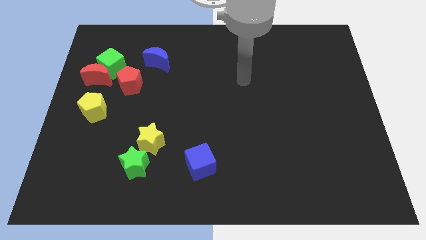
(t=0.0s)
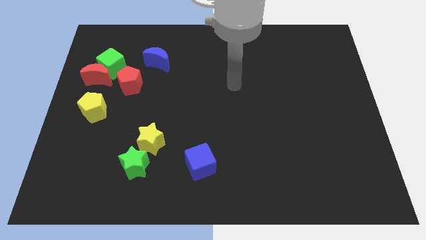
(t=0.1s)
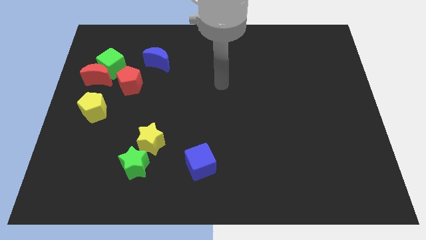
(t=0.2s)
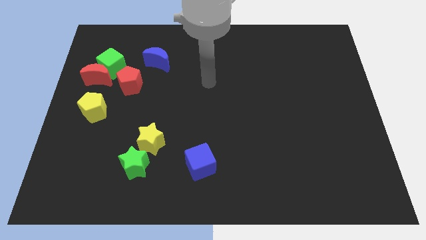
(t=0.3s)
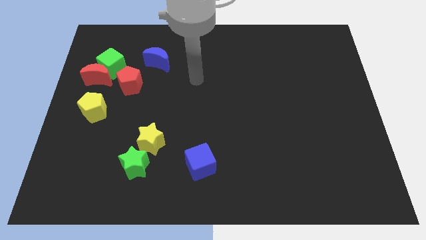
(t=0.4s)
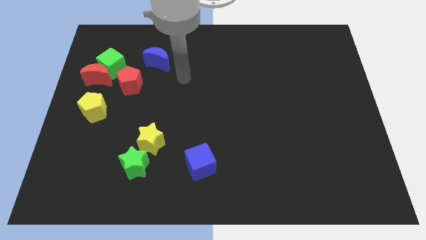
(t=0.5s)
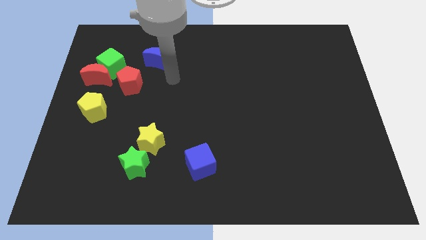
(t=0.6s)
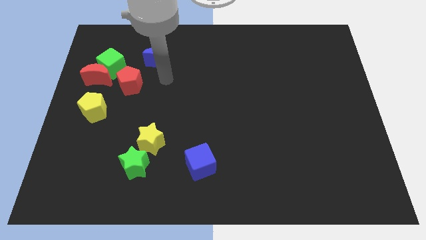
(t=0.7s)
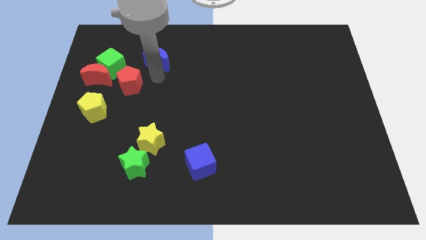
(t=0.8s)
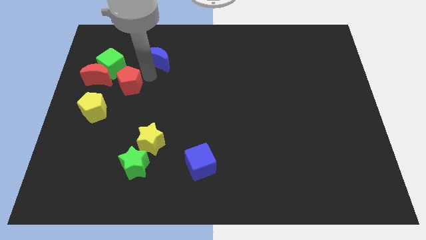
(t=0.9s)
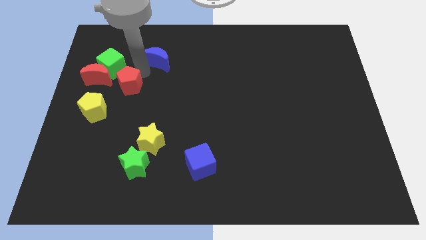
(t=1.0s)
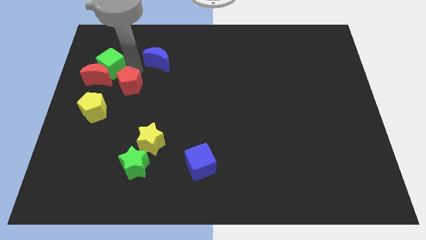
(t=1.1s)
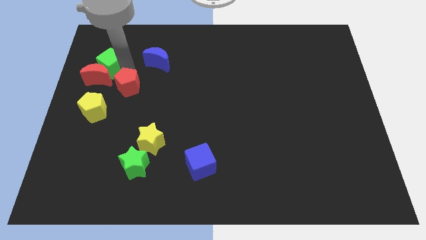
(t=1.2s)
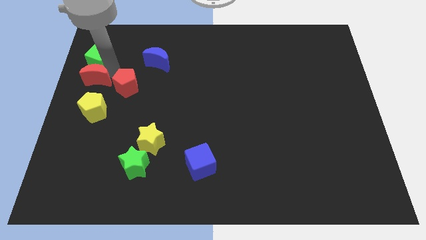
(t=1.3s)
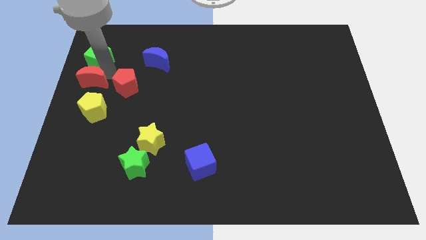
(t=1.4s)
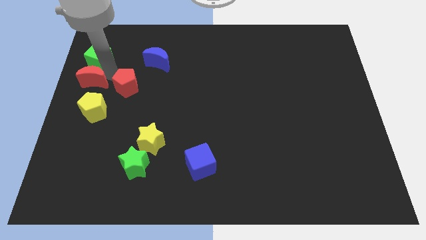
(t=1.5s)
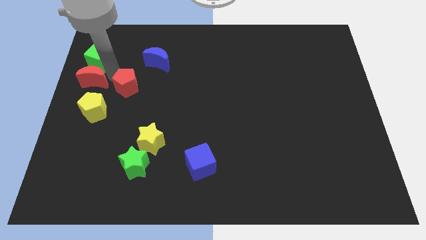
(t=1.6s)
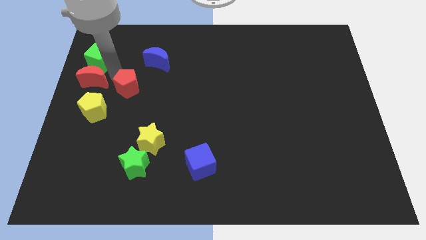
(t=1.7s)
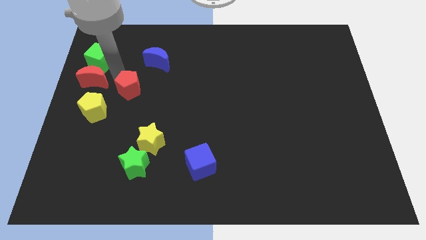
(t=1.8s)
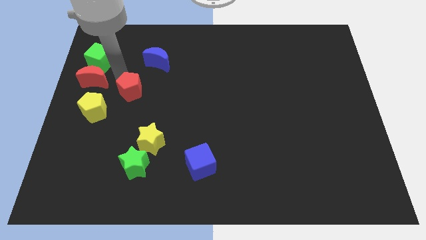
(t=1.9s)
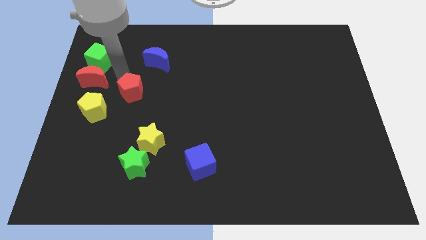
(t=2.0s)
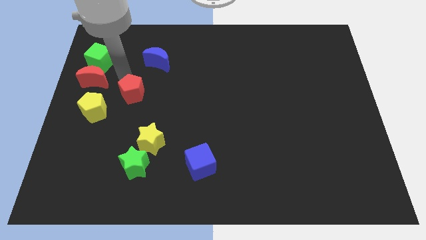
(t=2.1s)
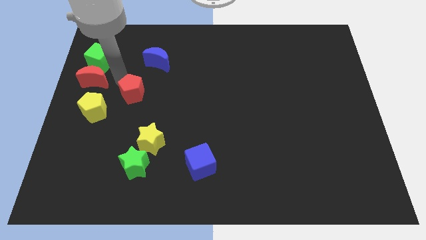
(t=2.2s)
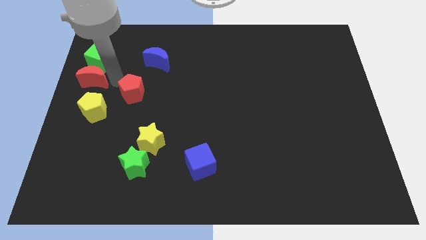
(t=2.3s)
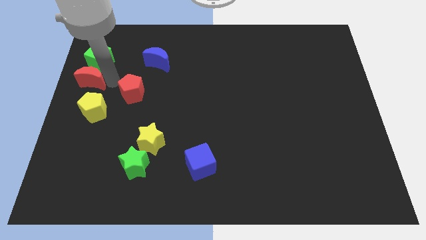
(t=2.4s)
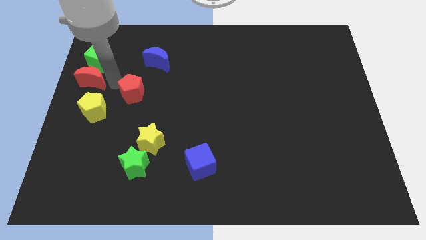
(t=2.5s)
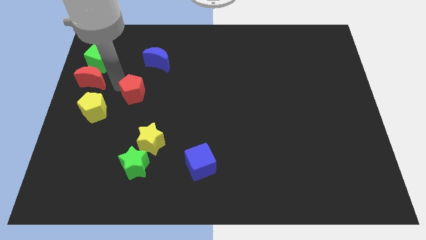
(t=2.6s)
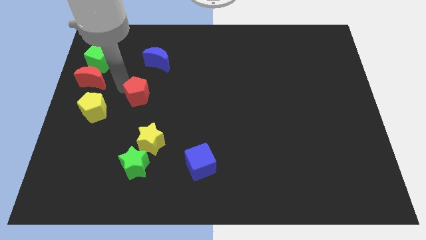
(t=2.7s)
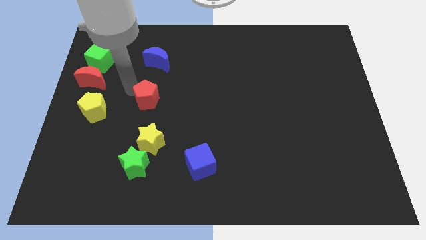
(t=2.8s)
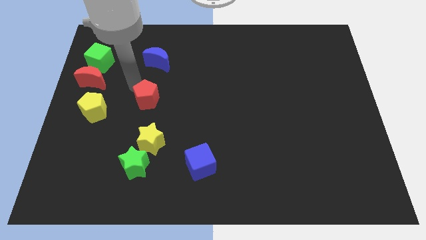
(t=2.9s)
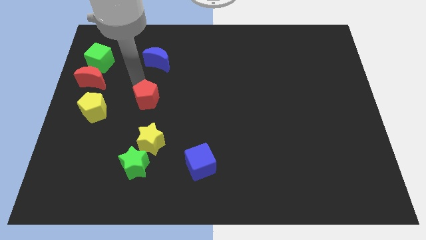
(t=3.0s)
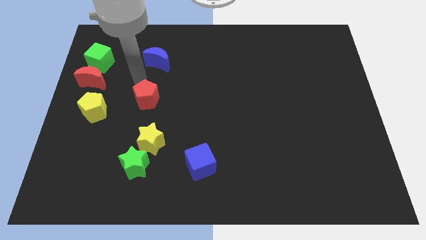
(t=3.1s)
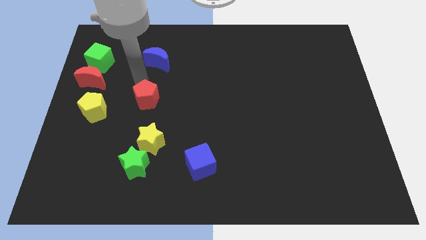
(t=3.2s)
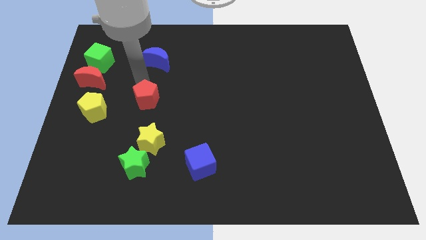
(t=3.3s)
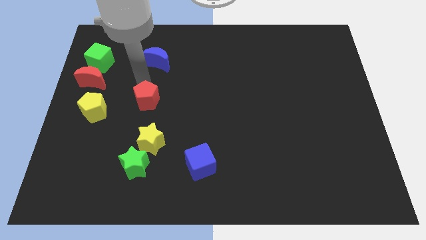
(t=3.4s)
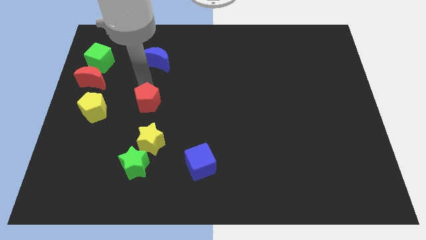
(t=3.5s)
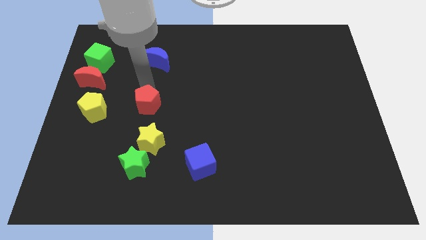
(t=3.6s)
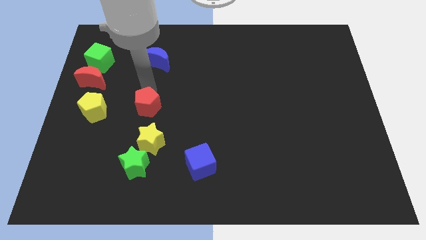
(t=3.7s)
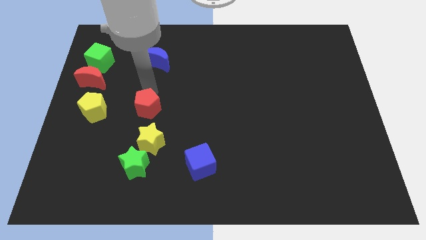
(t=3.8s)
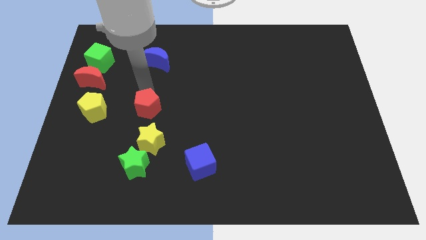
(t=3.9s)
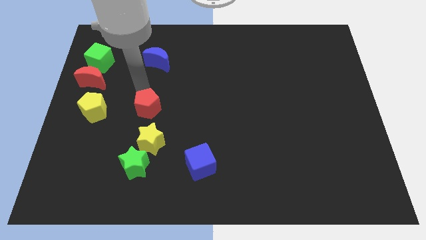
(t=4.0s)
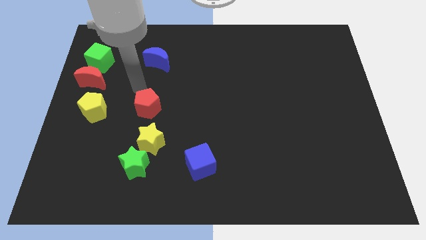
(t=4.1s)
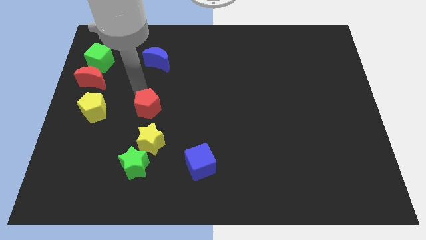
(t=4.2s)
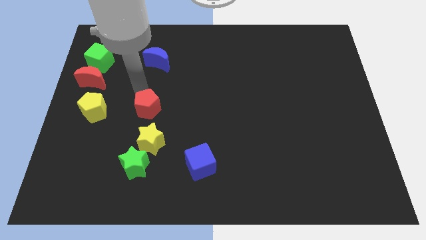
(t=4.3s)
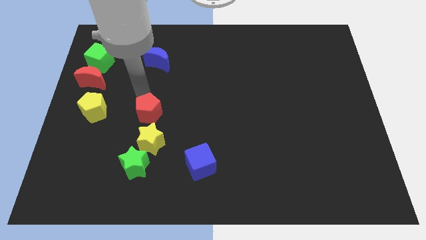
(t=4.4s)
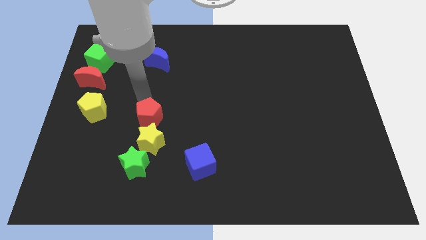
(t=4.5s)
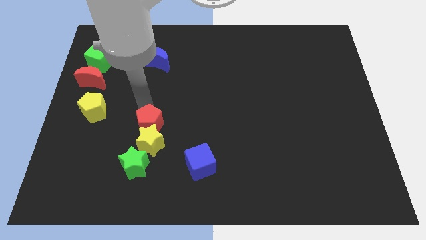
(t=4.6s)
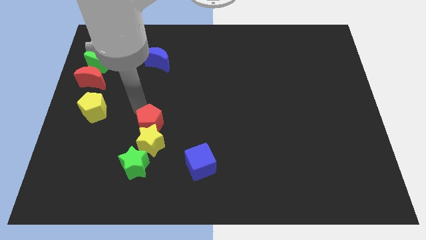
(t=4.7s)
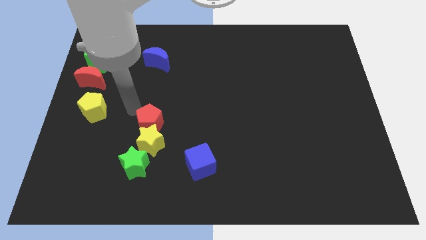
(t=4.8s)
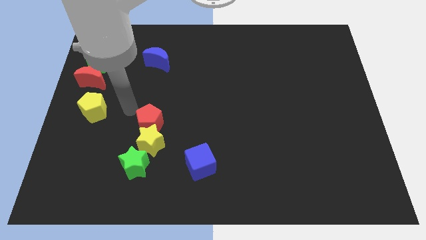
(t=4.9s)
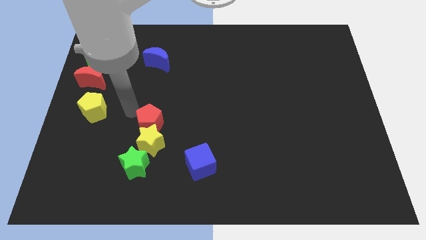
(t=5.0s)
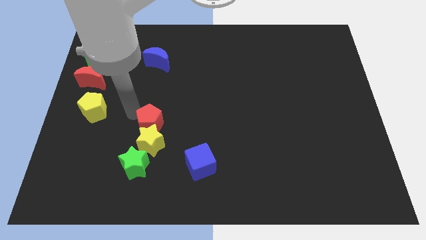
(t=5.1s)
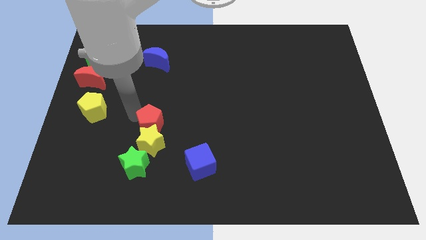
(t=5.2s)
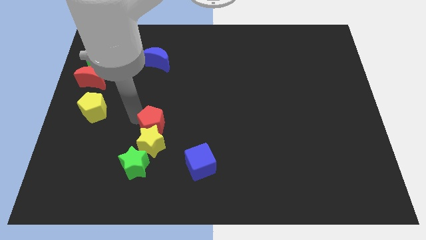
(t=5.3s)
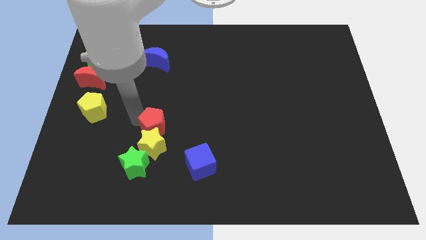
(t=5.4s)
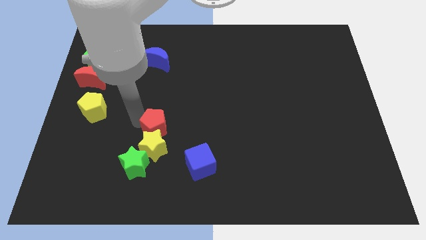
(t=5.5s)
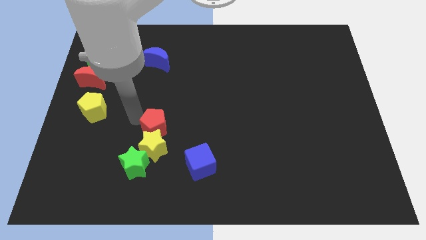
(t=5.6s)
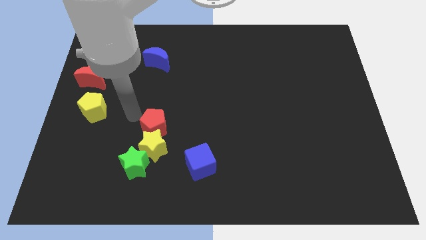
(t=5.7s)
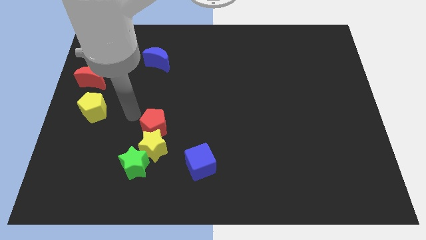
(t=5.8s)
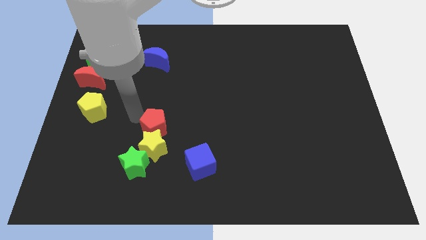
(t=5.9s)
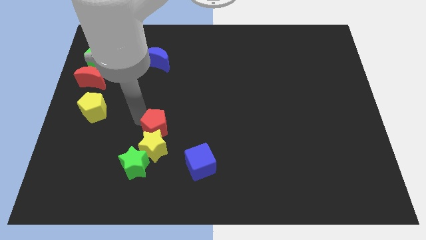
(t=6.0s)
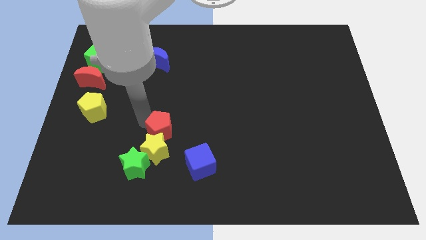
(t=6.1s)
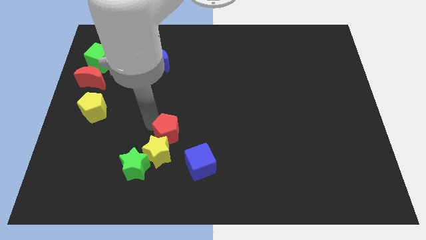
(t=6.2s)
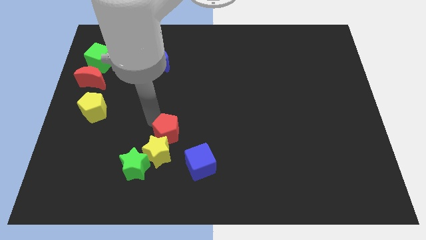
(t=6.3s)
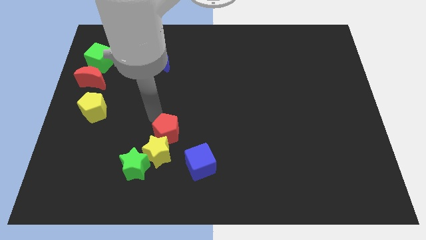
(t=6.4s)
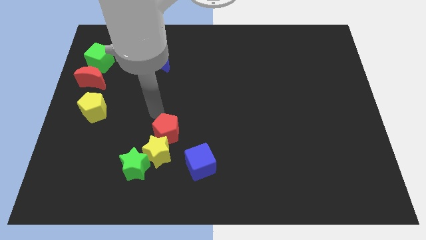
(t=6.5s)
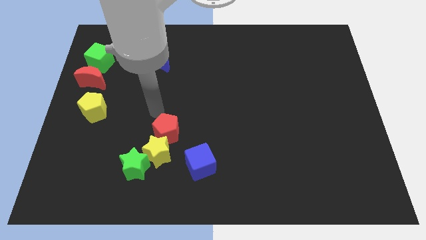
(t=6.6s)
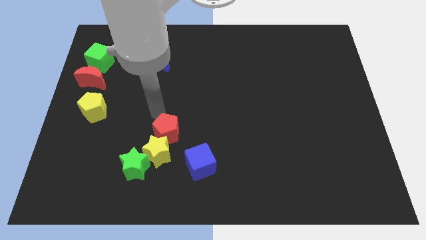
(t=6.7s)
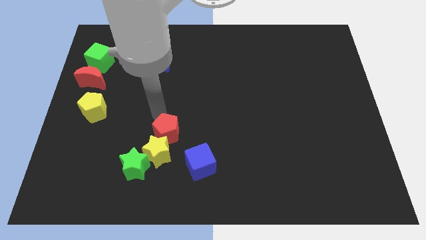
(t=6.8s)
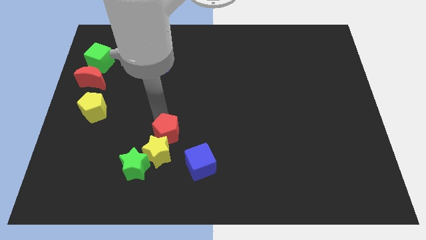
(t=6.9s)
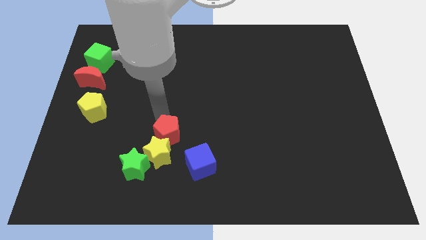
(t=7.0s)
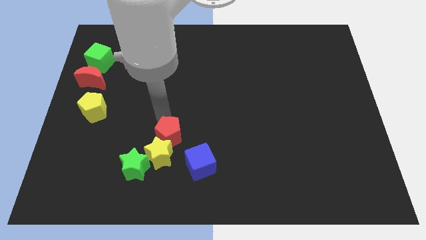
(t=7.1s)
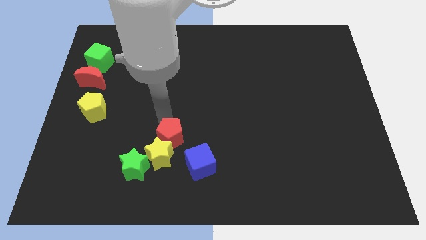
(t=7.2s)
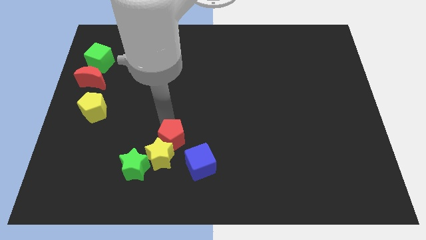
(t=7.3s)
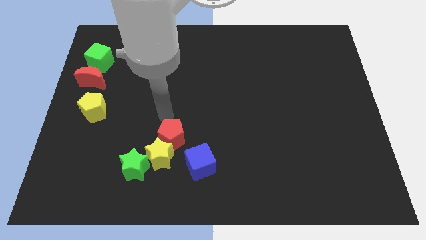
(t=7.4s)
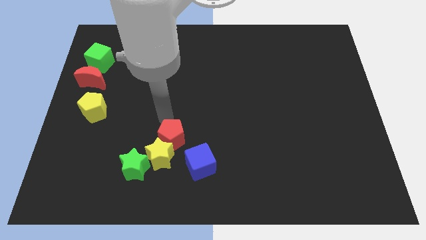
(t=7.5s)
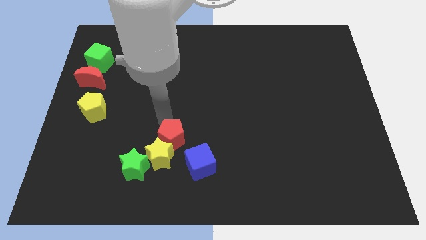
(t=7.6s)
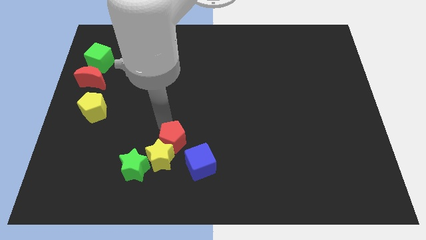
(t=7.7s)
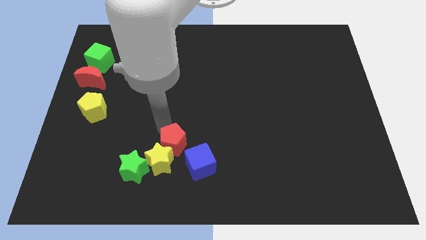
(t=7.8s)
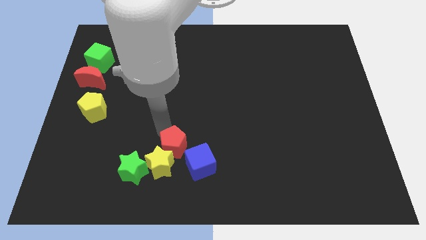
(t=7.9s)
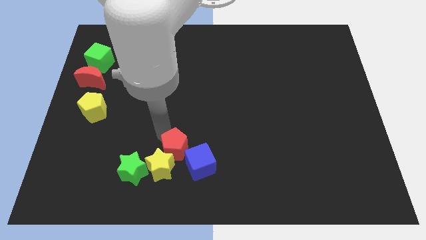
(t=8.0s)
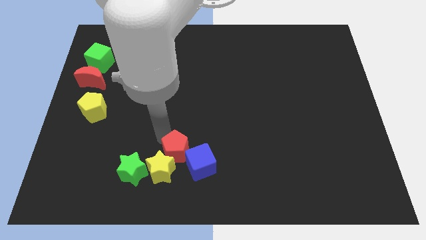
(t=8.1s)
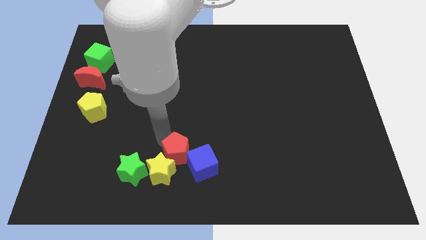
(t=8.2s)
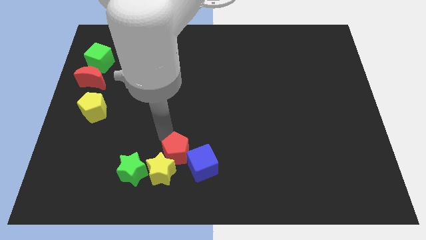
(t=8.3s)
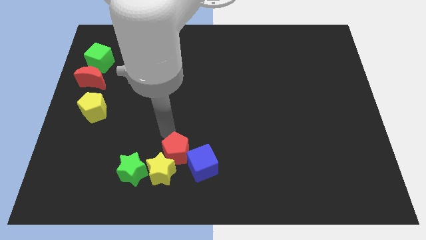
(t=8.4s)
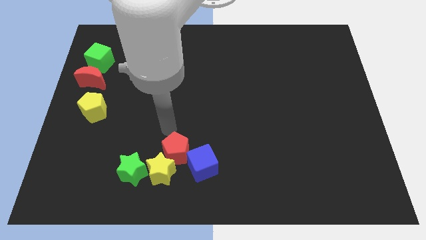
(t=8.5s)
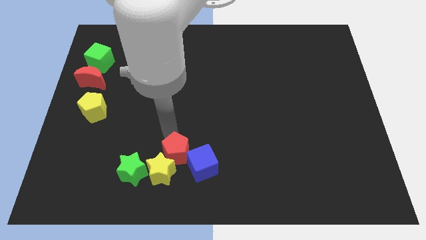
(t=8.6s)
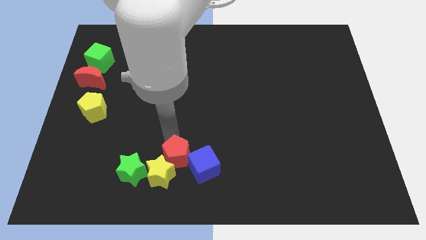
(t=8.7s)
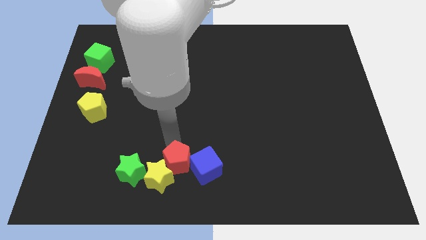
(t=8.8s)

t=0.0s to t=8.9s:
push the red pentagon to the bottom
